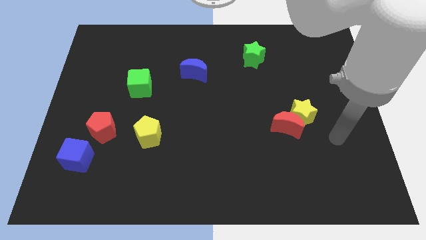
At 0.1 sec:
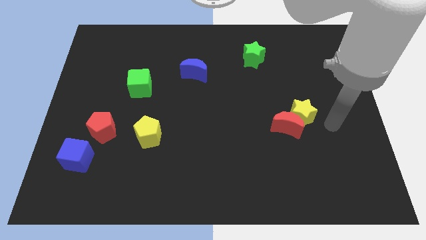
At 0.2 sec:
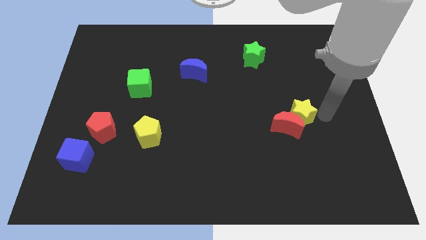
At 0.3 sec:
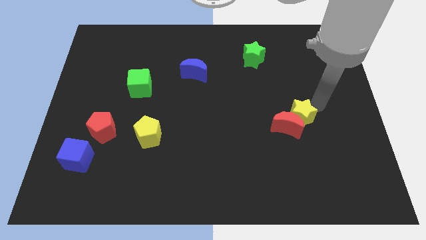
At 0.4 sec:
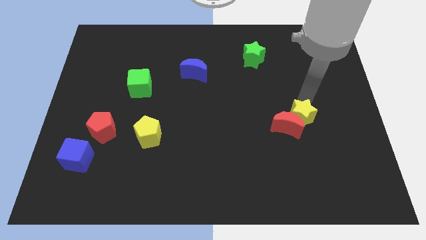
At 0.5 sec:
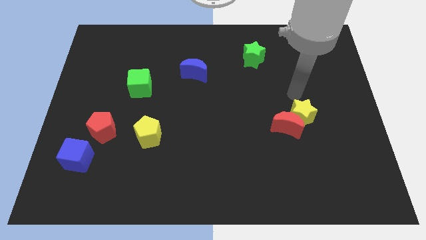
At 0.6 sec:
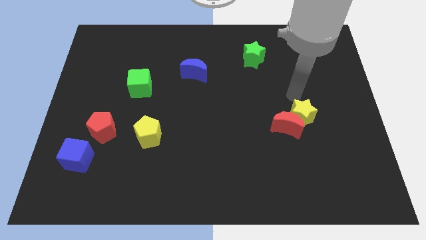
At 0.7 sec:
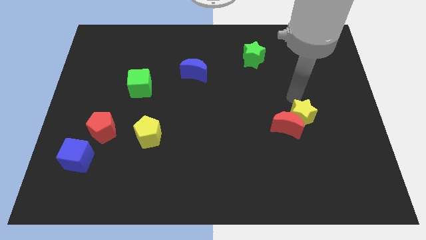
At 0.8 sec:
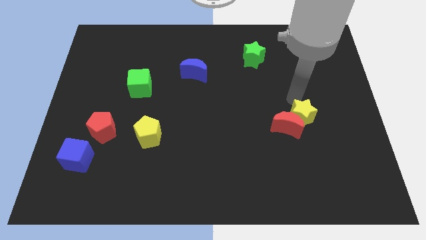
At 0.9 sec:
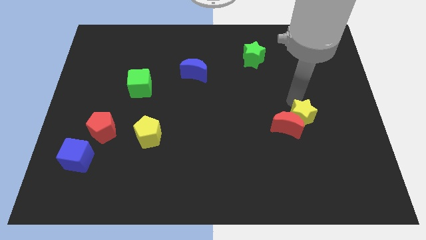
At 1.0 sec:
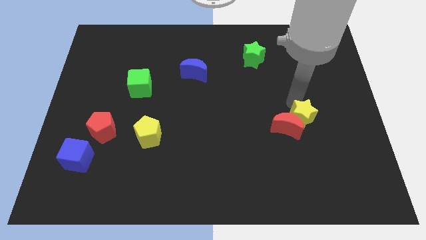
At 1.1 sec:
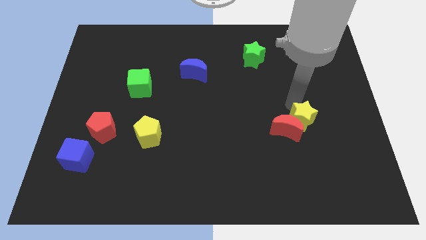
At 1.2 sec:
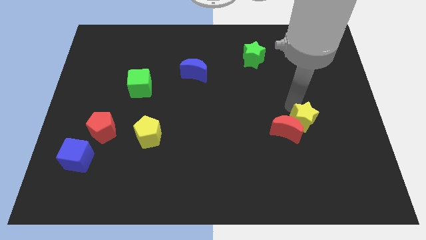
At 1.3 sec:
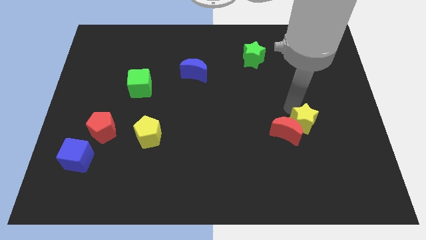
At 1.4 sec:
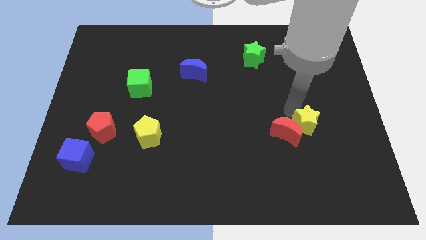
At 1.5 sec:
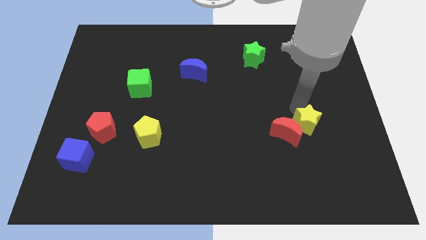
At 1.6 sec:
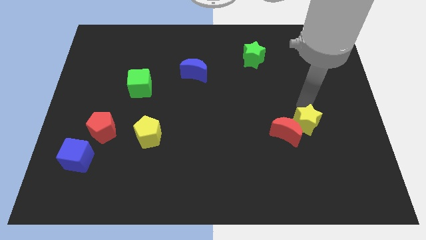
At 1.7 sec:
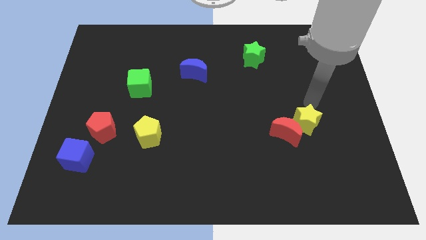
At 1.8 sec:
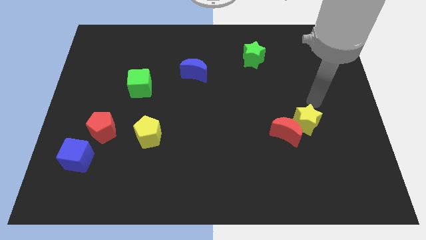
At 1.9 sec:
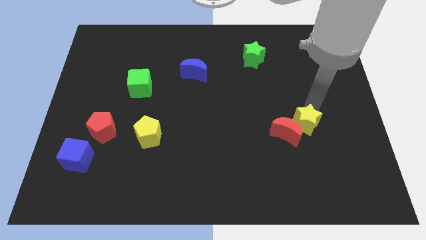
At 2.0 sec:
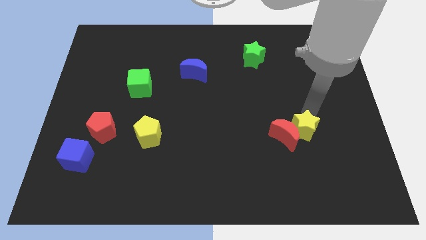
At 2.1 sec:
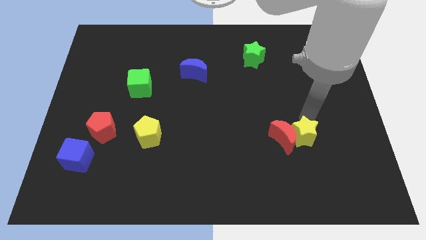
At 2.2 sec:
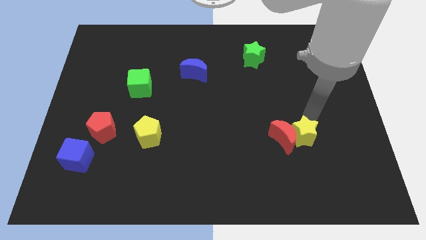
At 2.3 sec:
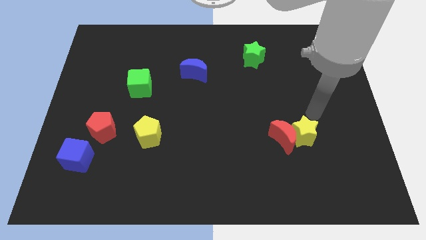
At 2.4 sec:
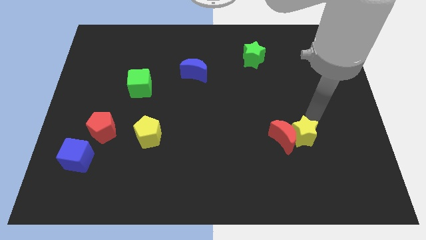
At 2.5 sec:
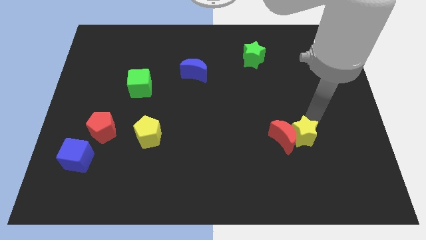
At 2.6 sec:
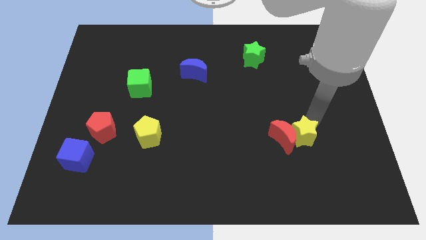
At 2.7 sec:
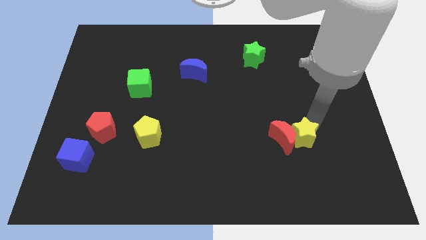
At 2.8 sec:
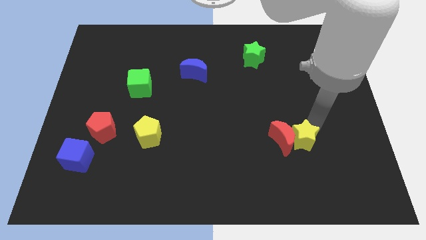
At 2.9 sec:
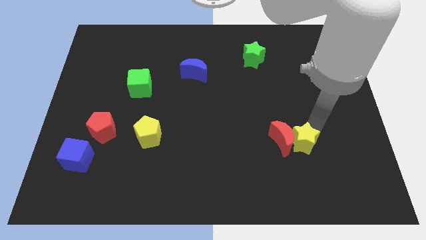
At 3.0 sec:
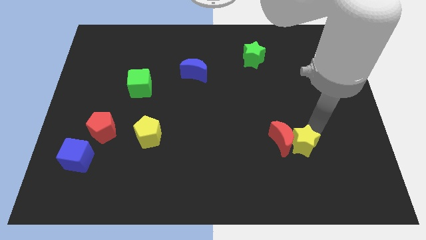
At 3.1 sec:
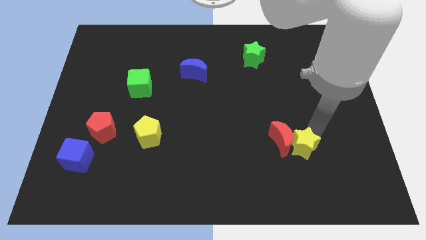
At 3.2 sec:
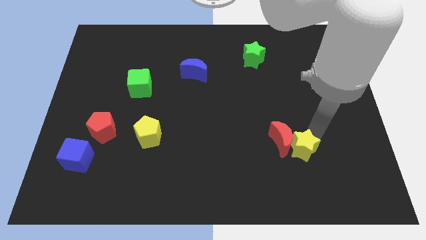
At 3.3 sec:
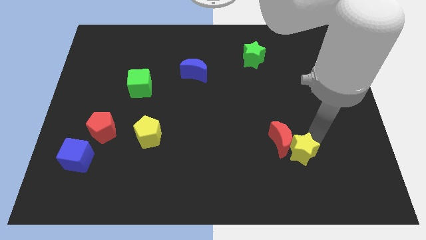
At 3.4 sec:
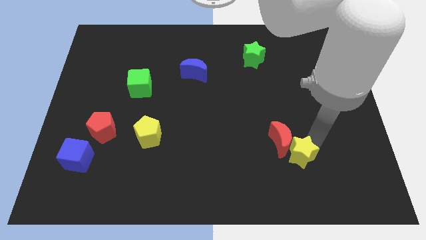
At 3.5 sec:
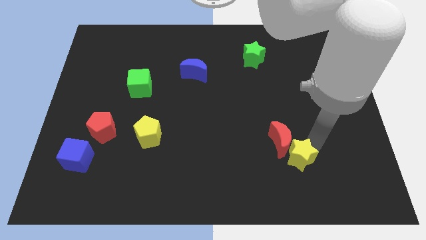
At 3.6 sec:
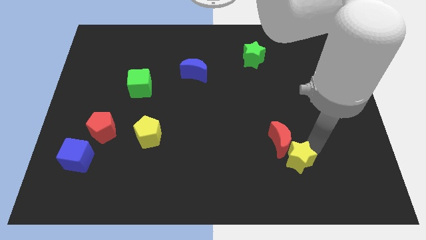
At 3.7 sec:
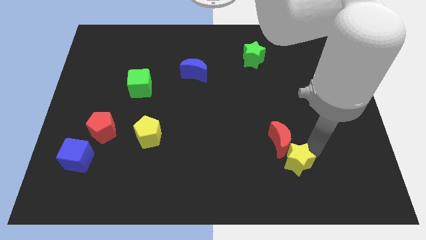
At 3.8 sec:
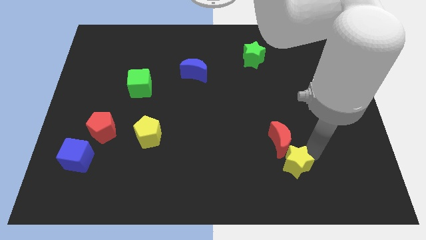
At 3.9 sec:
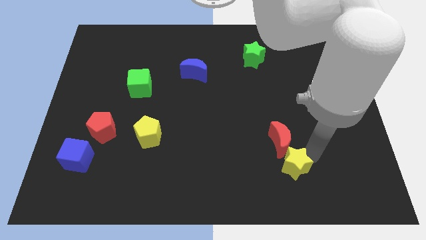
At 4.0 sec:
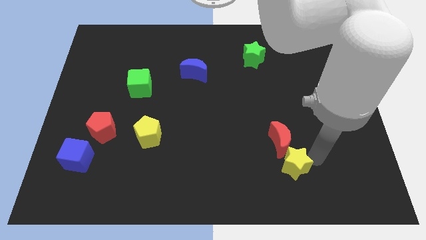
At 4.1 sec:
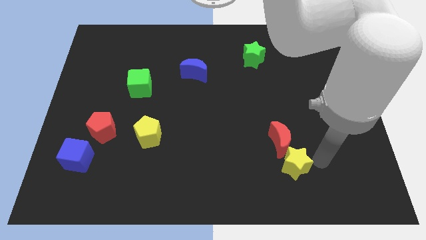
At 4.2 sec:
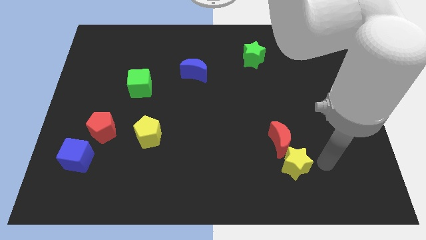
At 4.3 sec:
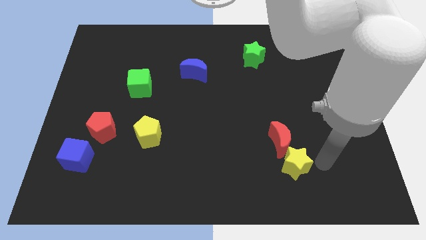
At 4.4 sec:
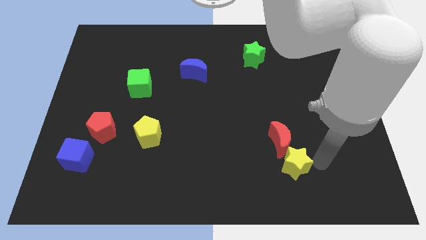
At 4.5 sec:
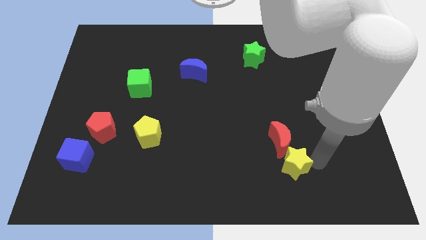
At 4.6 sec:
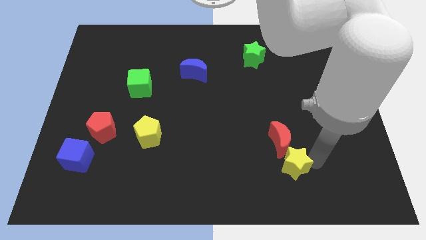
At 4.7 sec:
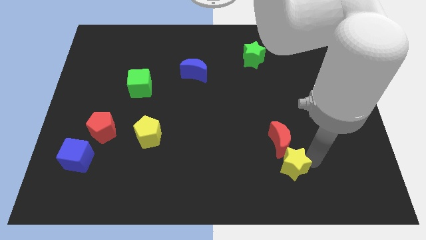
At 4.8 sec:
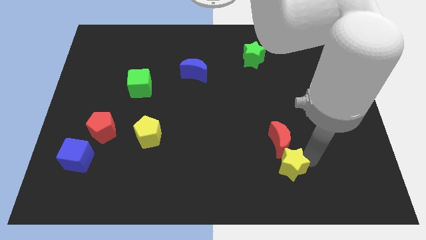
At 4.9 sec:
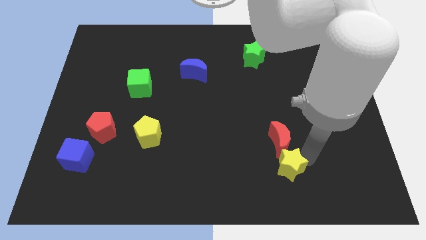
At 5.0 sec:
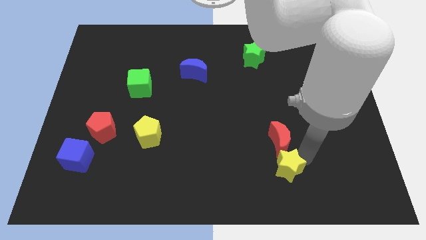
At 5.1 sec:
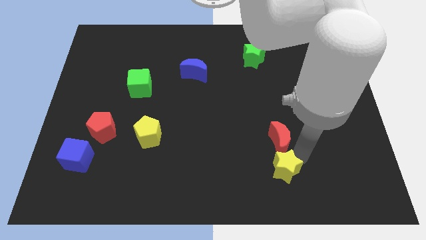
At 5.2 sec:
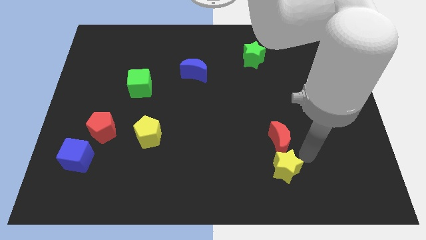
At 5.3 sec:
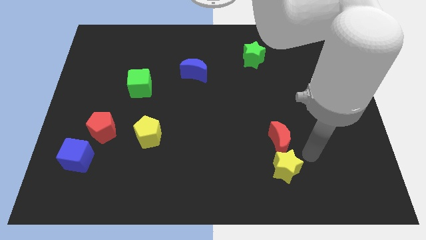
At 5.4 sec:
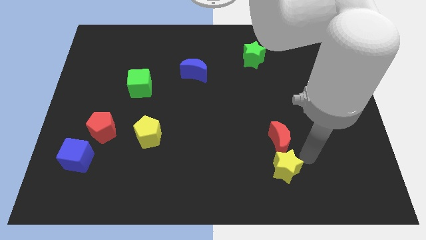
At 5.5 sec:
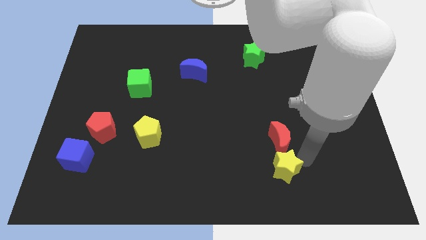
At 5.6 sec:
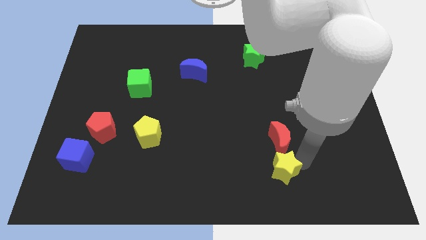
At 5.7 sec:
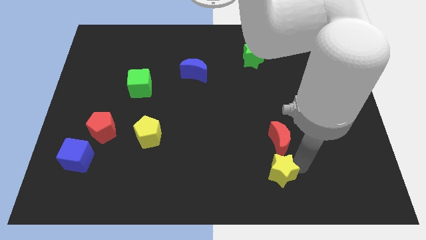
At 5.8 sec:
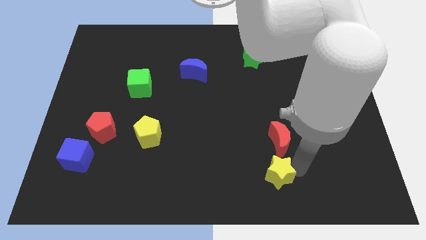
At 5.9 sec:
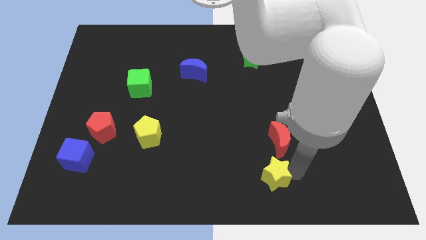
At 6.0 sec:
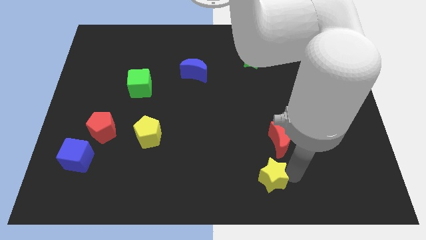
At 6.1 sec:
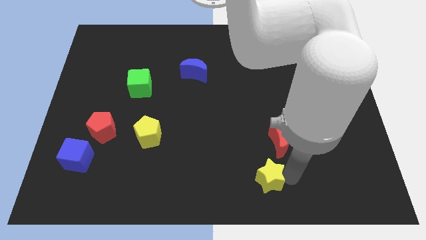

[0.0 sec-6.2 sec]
put the yellow star to the bottom side

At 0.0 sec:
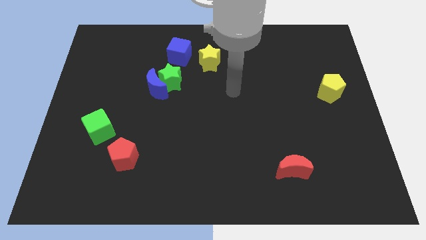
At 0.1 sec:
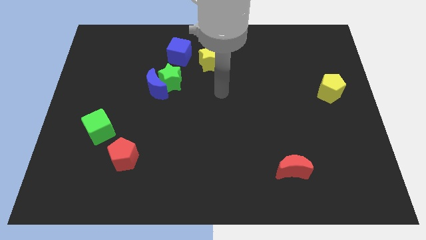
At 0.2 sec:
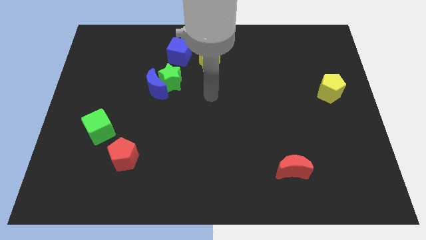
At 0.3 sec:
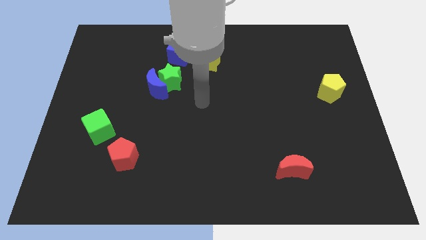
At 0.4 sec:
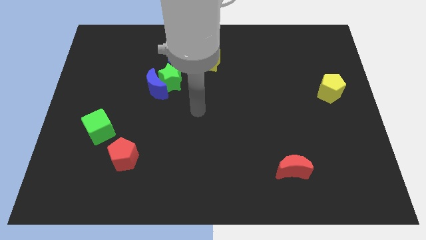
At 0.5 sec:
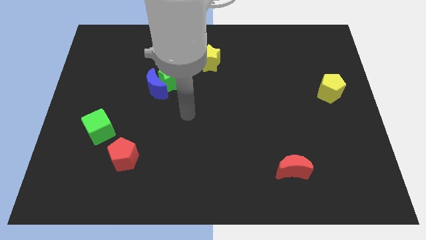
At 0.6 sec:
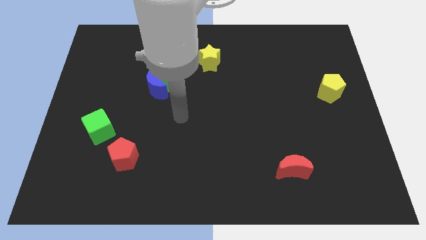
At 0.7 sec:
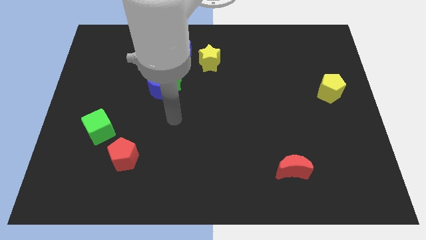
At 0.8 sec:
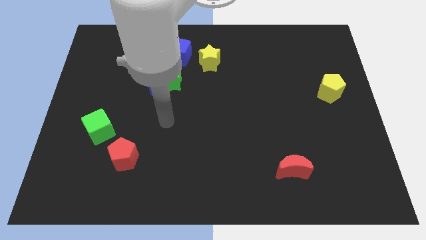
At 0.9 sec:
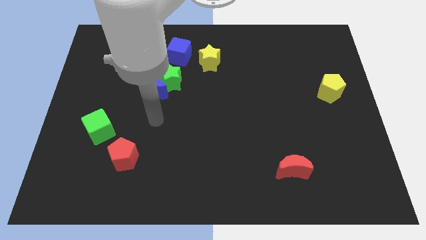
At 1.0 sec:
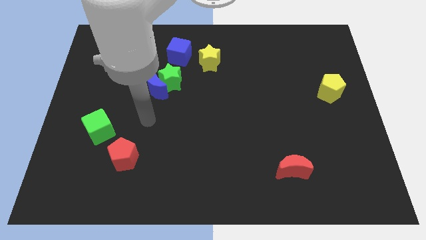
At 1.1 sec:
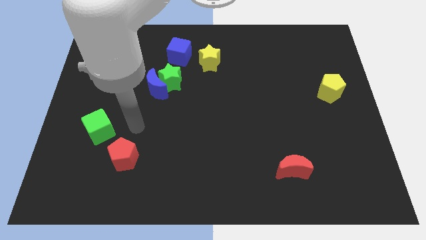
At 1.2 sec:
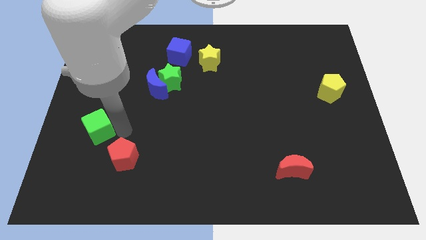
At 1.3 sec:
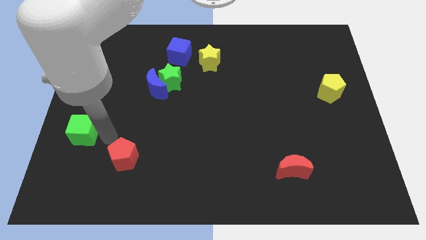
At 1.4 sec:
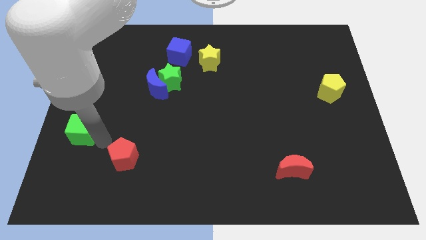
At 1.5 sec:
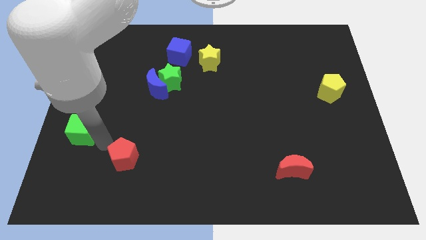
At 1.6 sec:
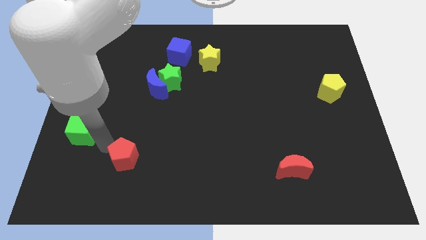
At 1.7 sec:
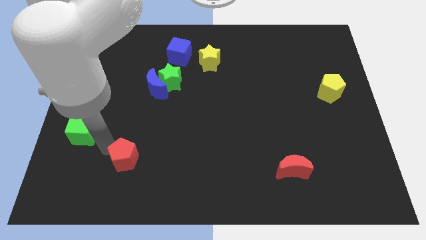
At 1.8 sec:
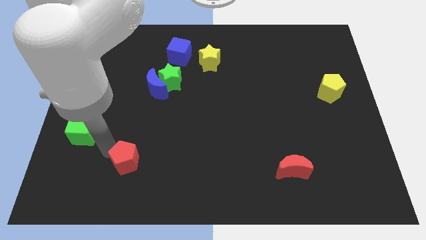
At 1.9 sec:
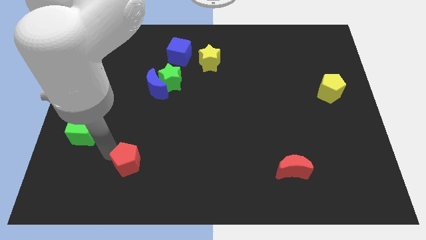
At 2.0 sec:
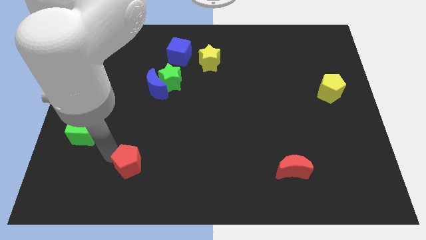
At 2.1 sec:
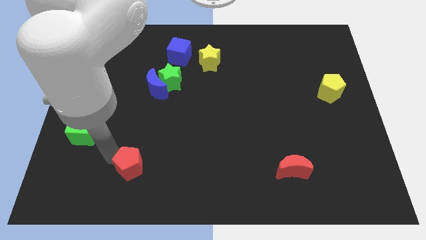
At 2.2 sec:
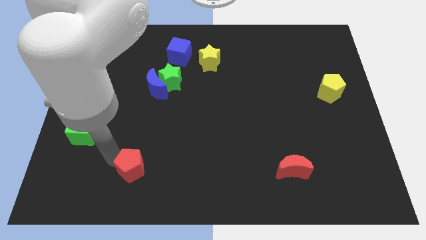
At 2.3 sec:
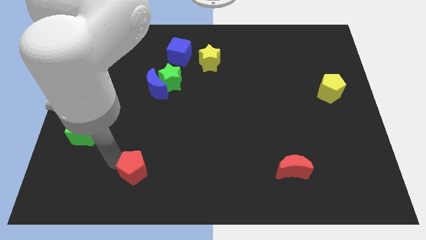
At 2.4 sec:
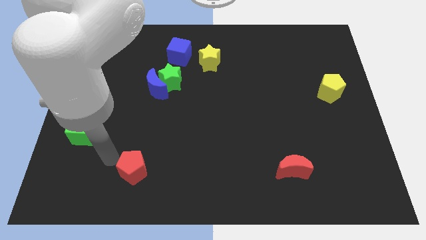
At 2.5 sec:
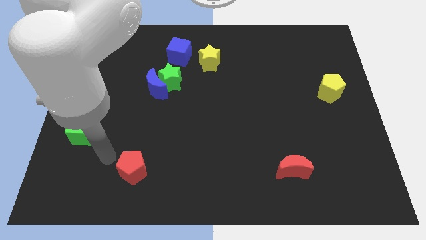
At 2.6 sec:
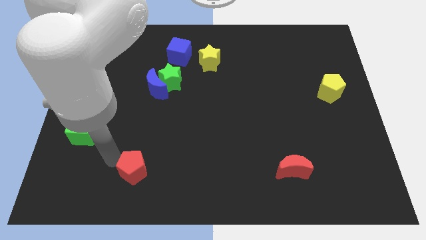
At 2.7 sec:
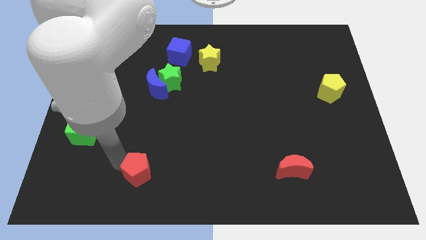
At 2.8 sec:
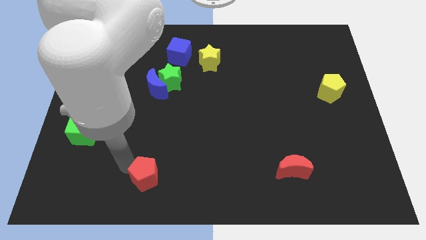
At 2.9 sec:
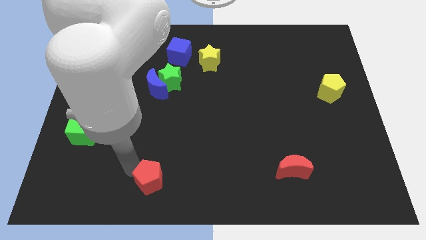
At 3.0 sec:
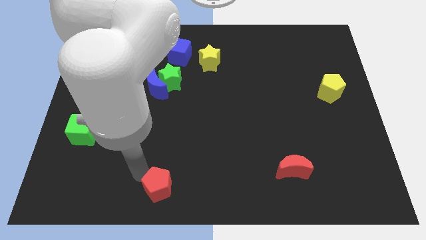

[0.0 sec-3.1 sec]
slide the red pentagon to the bottom
